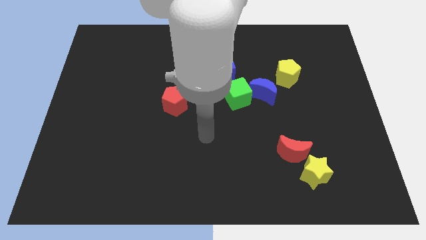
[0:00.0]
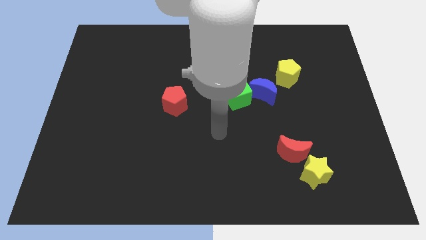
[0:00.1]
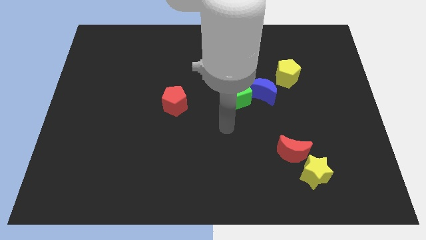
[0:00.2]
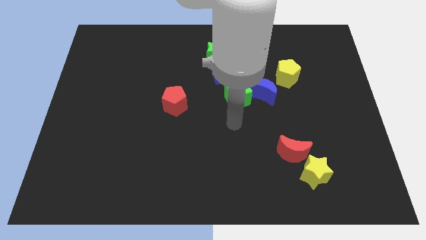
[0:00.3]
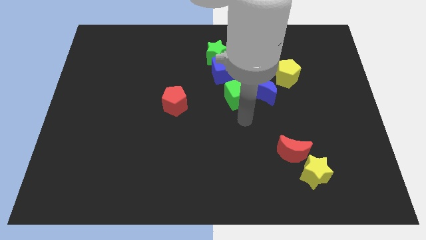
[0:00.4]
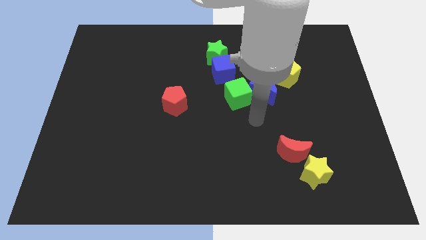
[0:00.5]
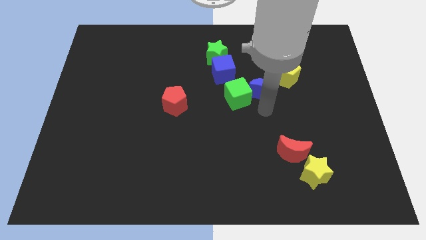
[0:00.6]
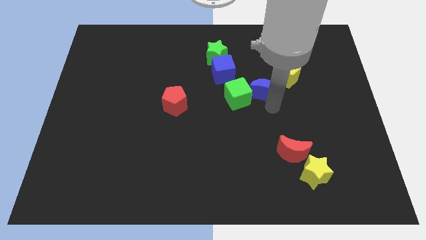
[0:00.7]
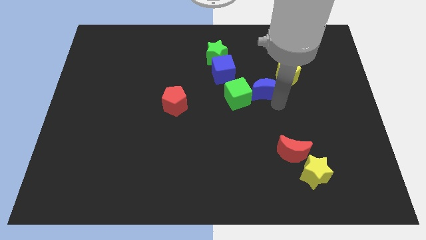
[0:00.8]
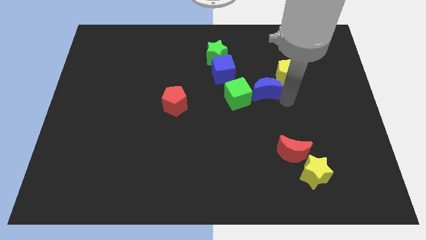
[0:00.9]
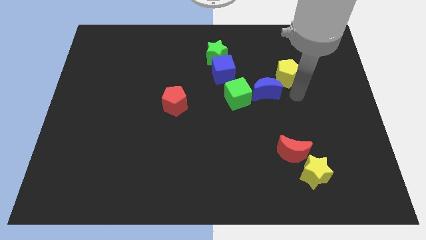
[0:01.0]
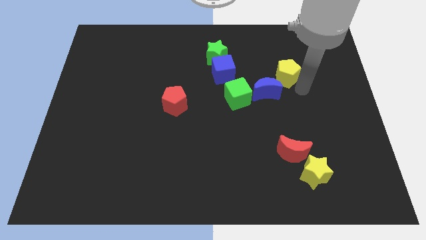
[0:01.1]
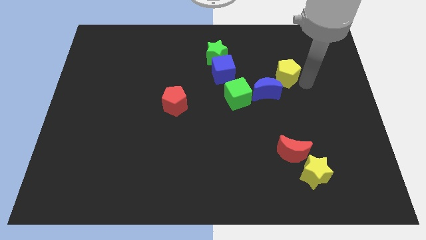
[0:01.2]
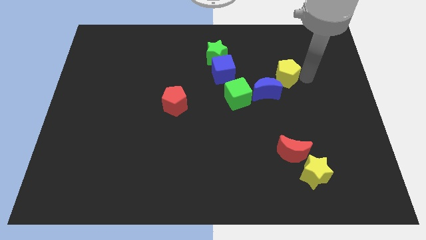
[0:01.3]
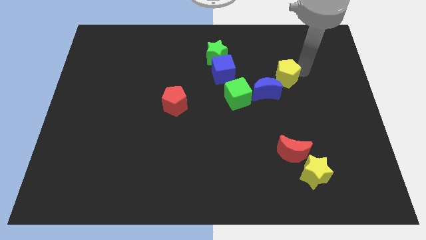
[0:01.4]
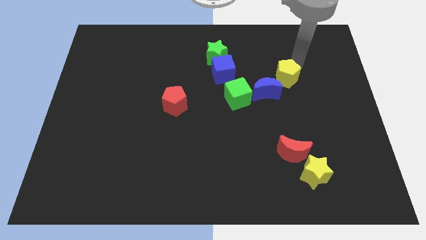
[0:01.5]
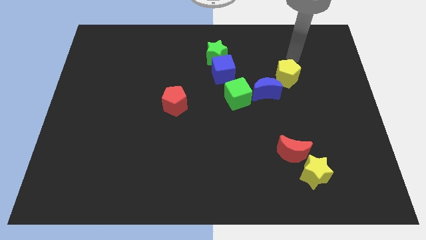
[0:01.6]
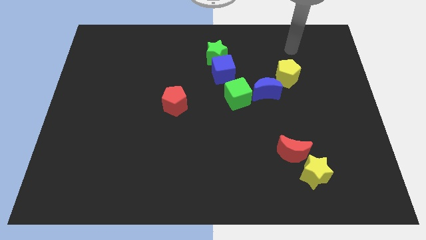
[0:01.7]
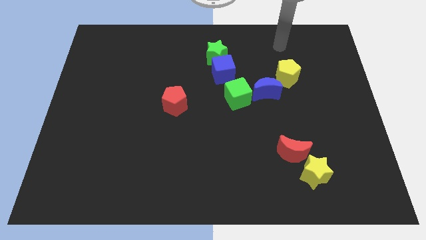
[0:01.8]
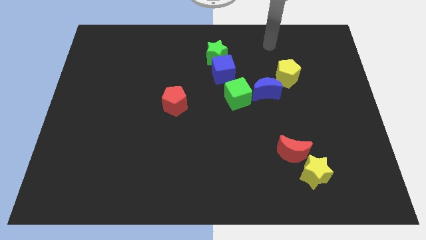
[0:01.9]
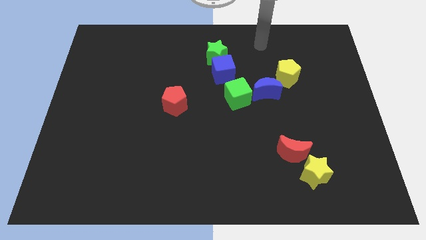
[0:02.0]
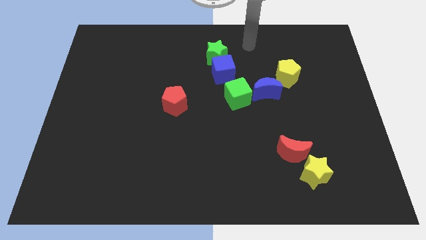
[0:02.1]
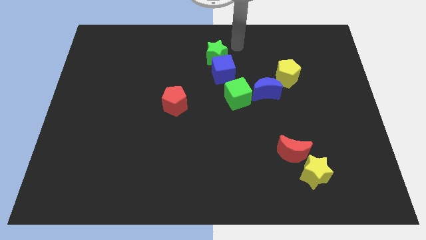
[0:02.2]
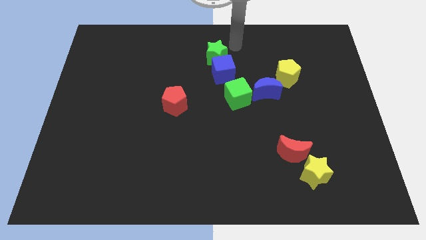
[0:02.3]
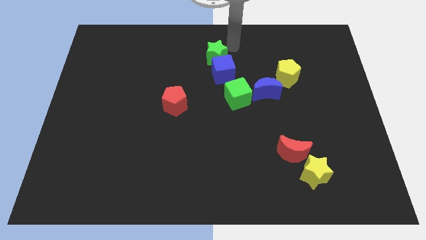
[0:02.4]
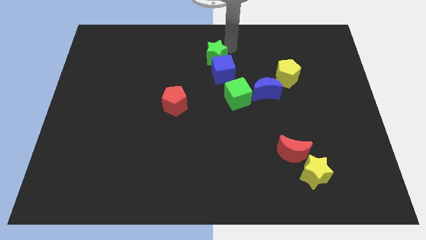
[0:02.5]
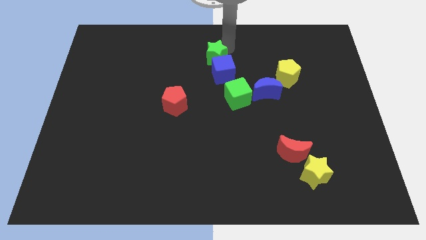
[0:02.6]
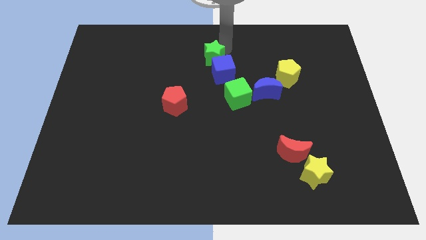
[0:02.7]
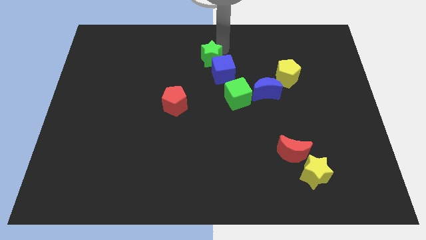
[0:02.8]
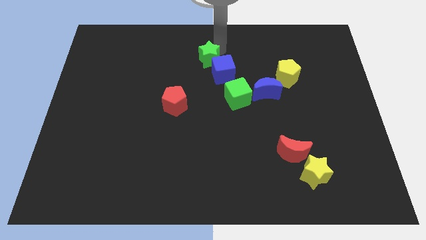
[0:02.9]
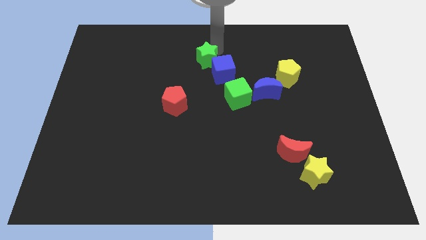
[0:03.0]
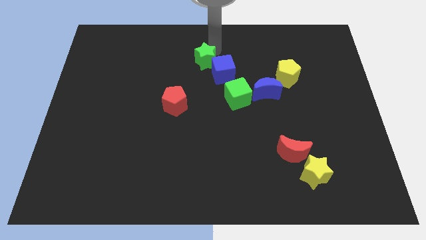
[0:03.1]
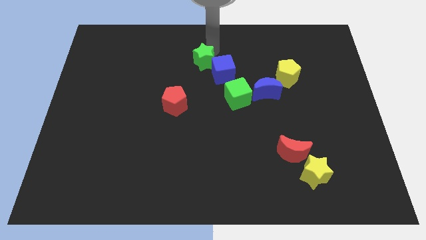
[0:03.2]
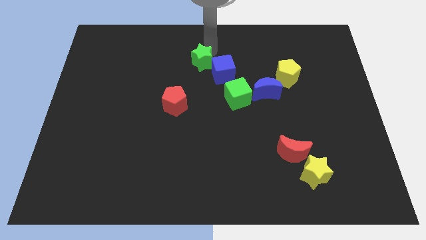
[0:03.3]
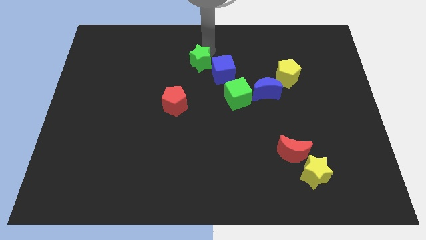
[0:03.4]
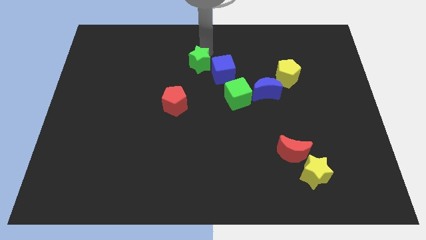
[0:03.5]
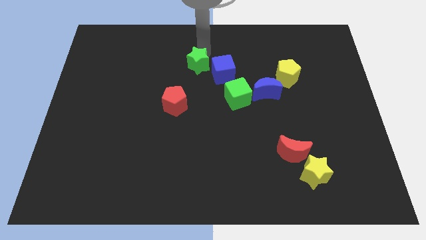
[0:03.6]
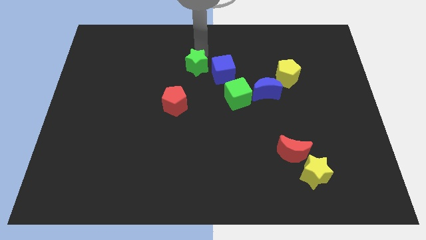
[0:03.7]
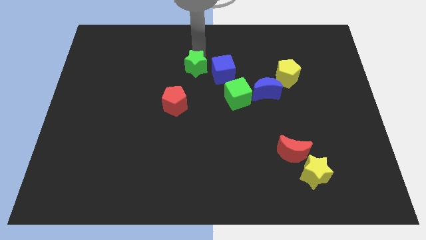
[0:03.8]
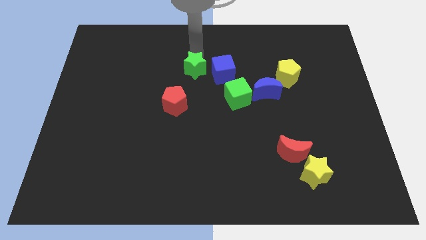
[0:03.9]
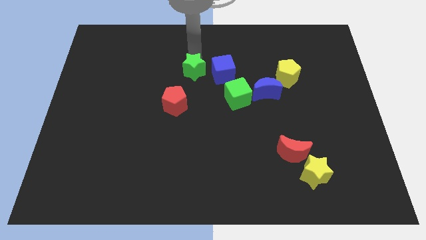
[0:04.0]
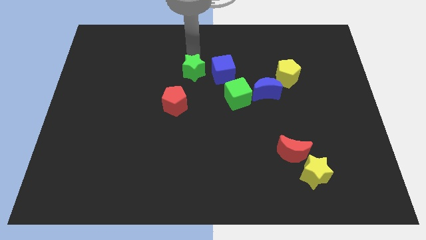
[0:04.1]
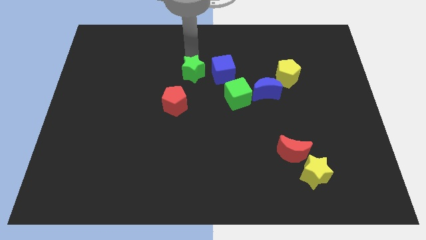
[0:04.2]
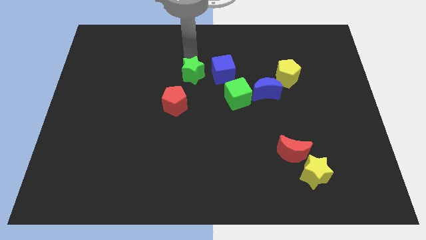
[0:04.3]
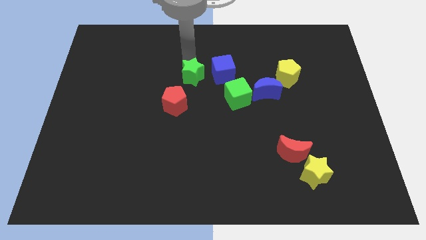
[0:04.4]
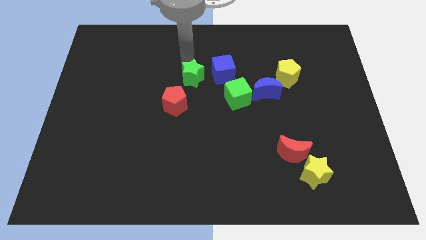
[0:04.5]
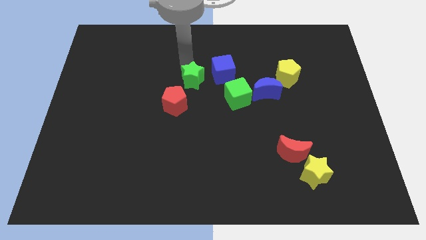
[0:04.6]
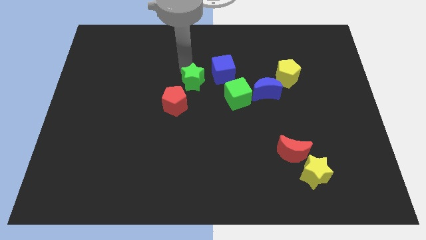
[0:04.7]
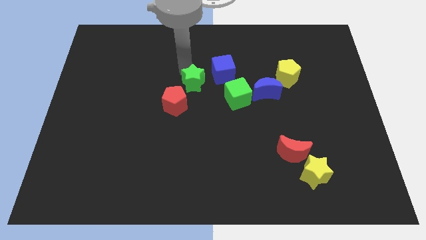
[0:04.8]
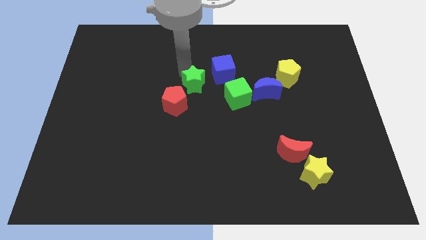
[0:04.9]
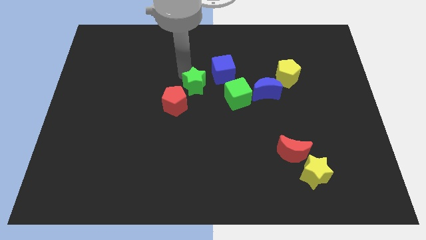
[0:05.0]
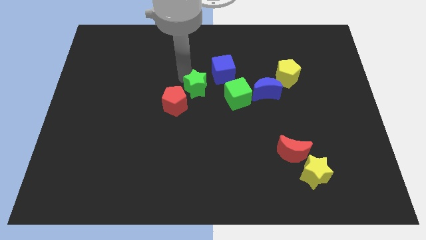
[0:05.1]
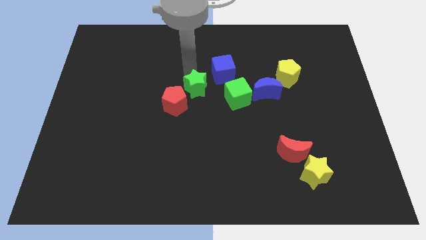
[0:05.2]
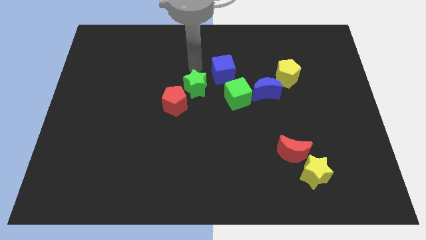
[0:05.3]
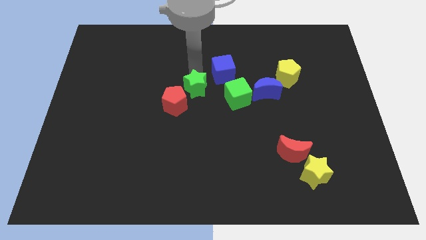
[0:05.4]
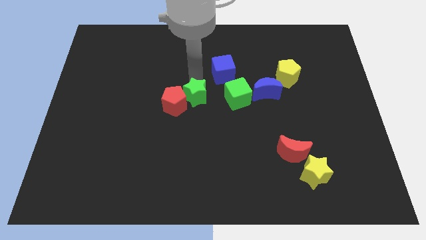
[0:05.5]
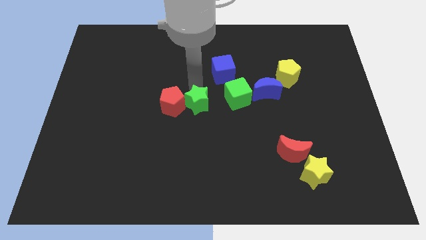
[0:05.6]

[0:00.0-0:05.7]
slide the green star to the bottom right of the red pentagon
